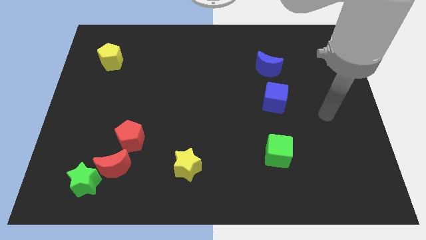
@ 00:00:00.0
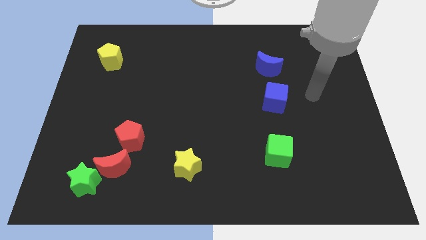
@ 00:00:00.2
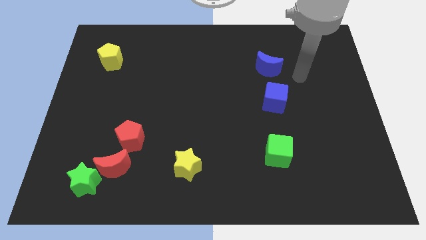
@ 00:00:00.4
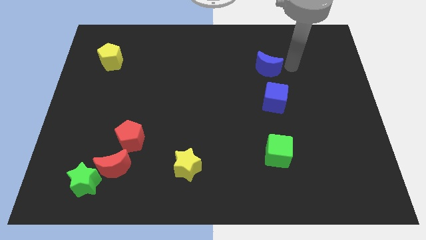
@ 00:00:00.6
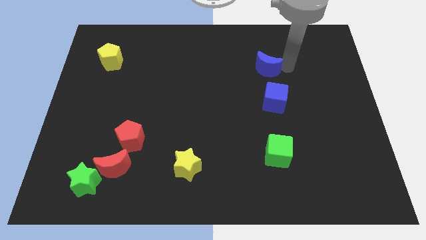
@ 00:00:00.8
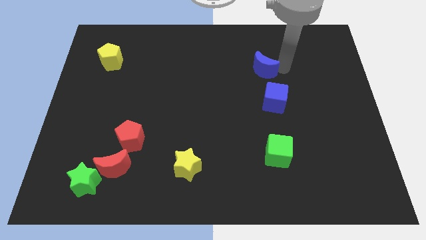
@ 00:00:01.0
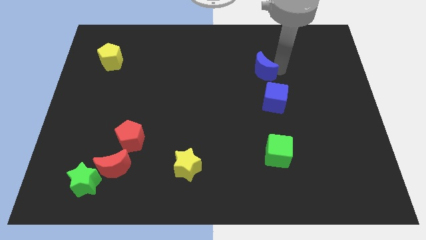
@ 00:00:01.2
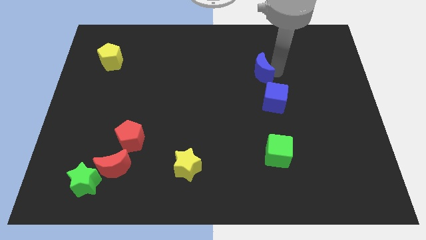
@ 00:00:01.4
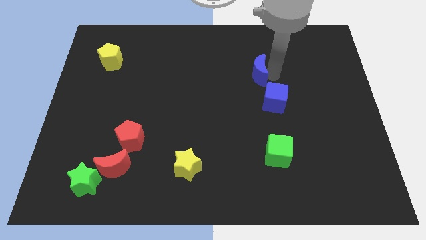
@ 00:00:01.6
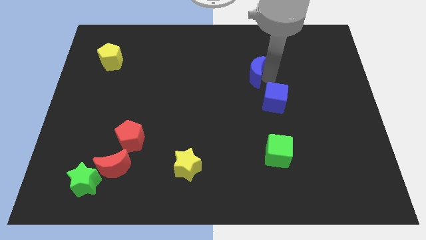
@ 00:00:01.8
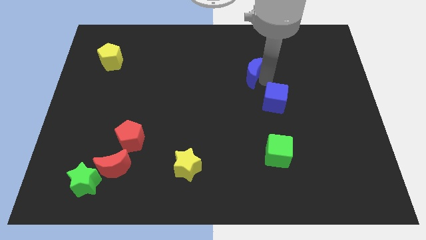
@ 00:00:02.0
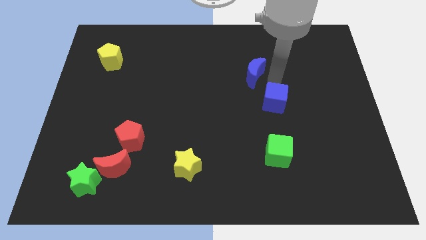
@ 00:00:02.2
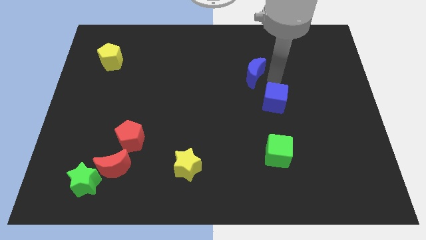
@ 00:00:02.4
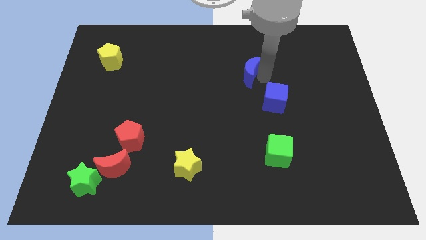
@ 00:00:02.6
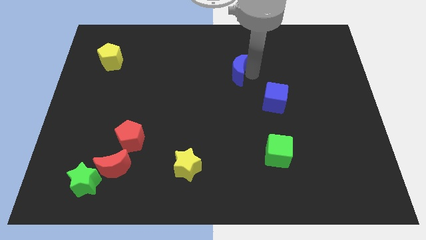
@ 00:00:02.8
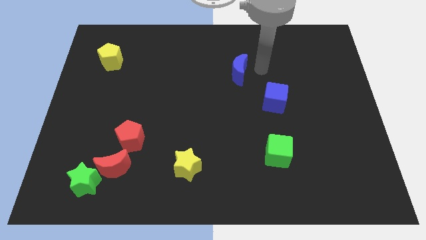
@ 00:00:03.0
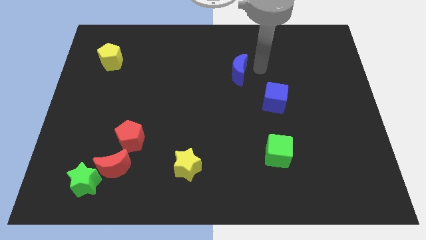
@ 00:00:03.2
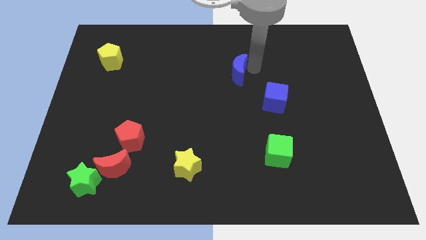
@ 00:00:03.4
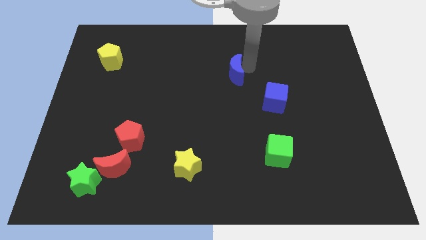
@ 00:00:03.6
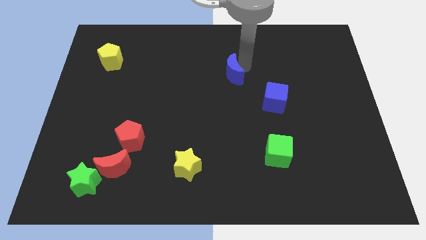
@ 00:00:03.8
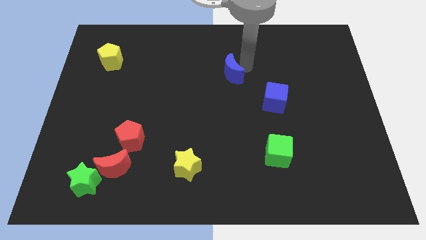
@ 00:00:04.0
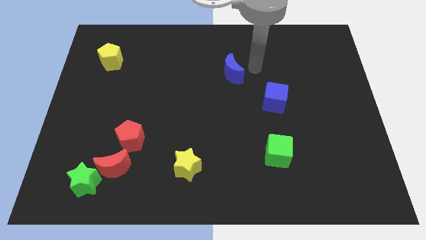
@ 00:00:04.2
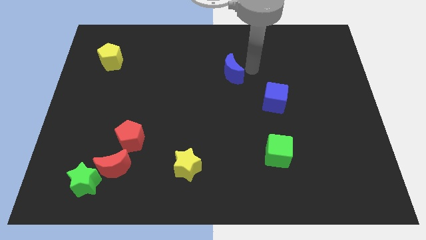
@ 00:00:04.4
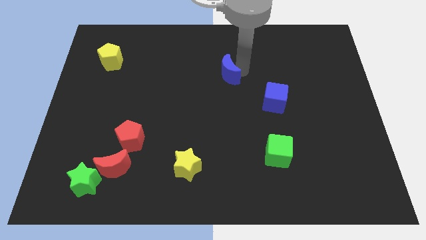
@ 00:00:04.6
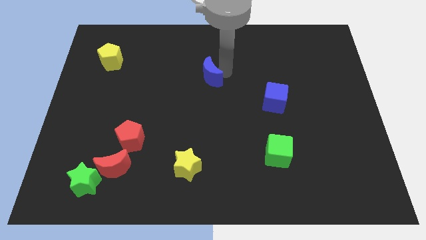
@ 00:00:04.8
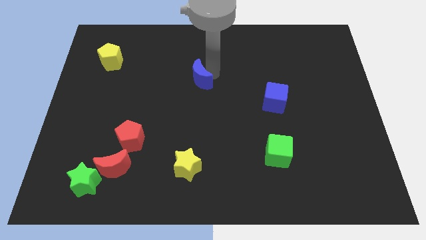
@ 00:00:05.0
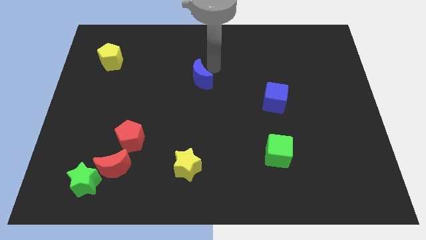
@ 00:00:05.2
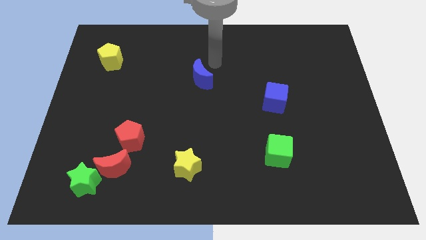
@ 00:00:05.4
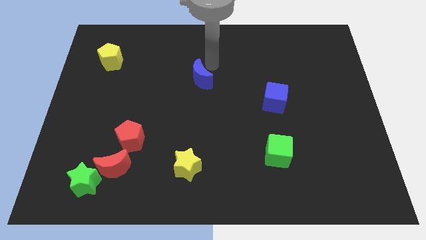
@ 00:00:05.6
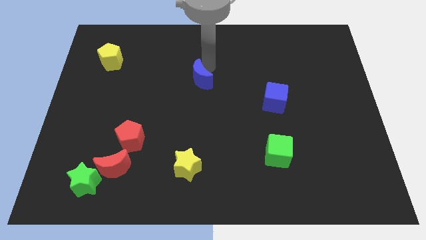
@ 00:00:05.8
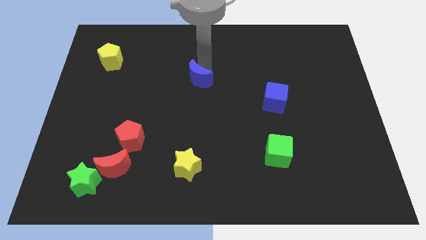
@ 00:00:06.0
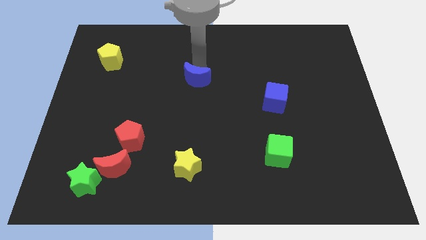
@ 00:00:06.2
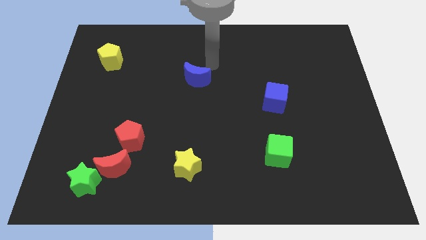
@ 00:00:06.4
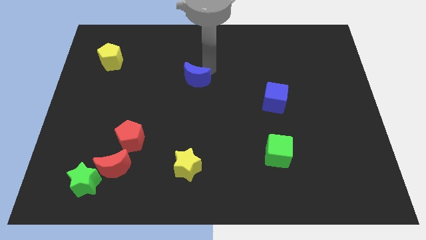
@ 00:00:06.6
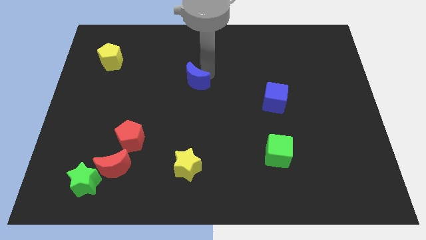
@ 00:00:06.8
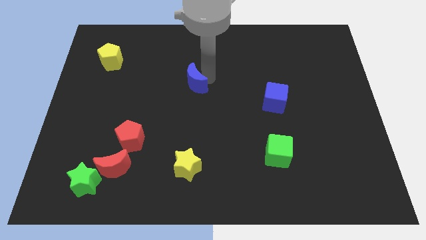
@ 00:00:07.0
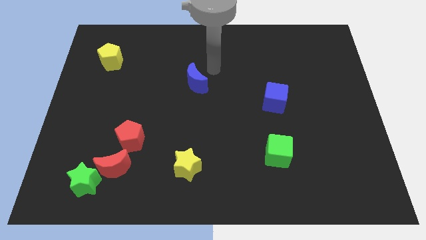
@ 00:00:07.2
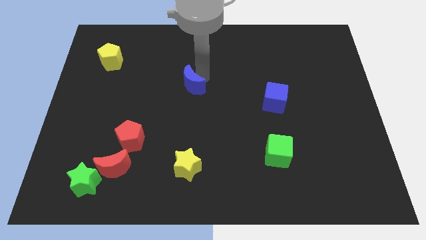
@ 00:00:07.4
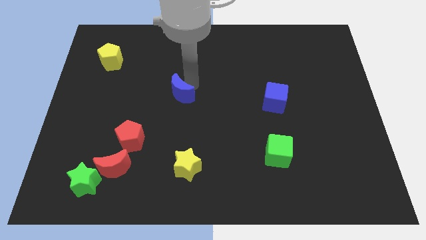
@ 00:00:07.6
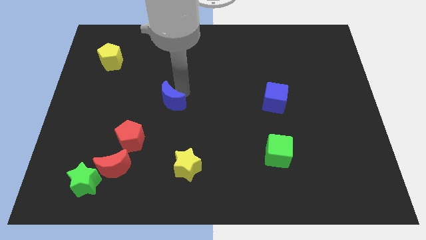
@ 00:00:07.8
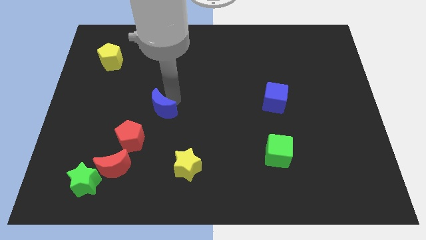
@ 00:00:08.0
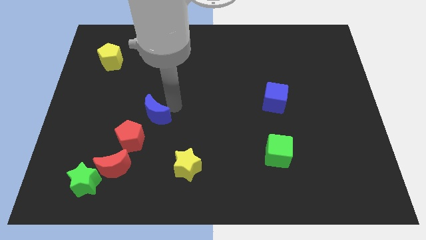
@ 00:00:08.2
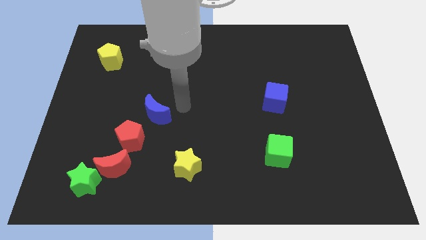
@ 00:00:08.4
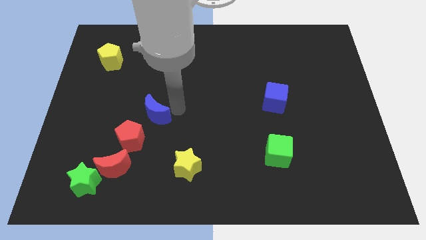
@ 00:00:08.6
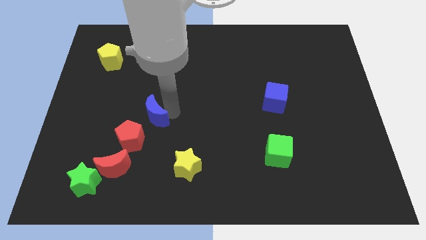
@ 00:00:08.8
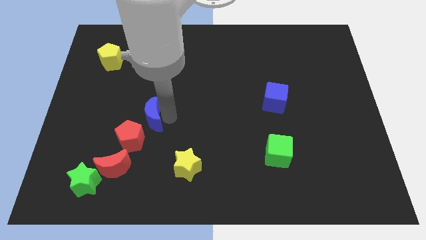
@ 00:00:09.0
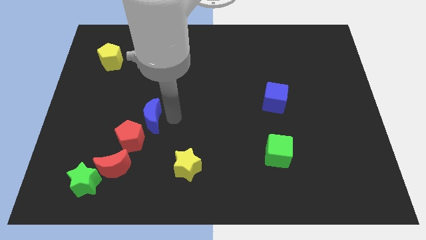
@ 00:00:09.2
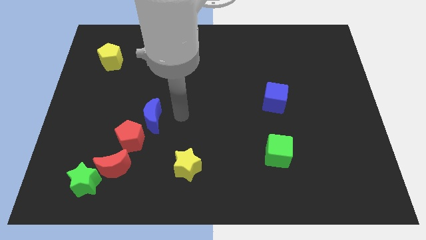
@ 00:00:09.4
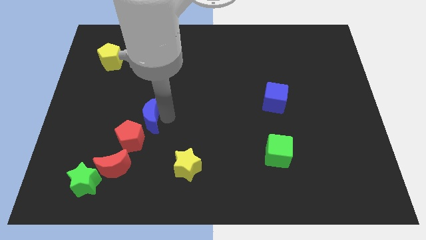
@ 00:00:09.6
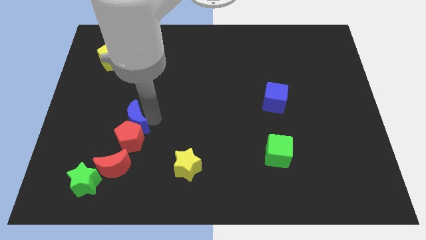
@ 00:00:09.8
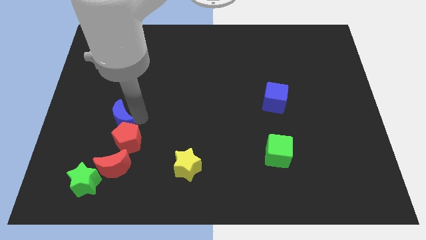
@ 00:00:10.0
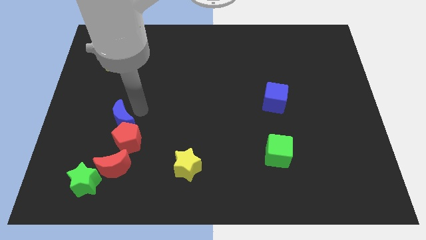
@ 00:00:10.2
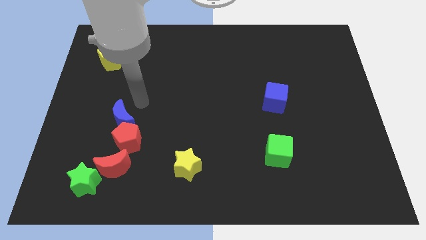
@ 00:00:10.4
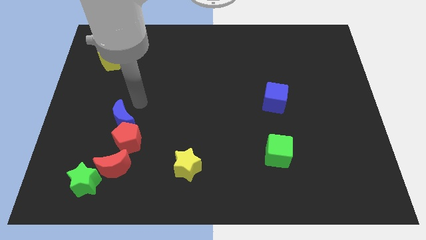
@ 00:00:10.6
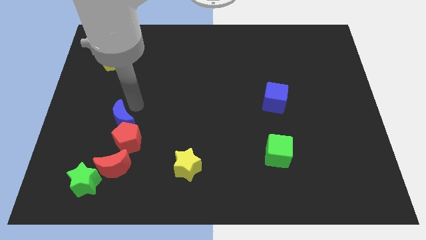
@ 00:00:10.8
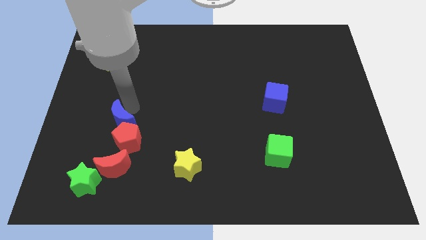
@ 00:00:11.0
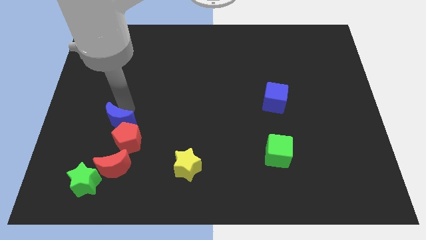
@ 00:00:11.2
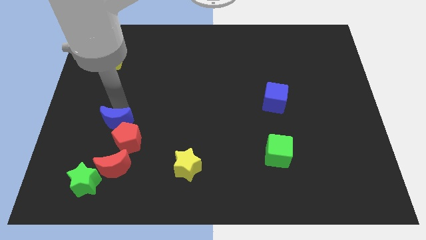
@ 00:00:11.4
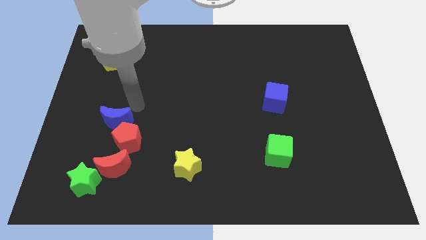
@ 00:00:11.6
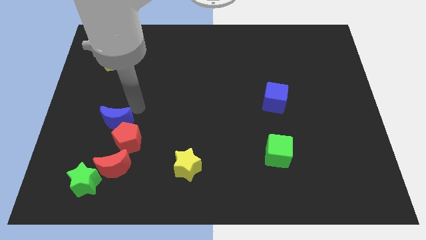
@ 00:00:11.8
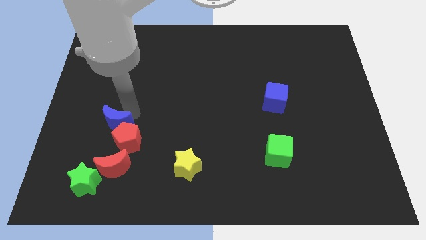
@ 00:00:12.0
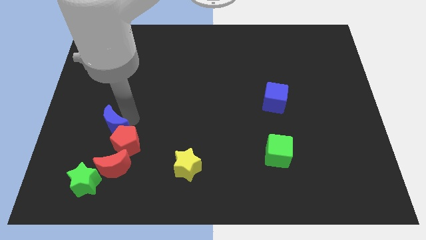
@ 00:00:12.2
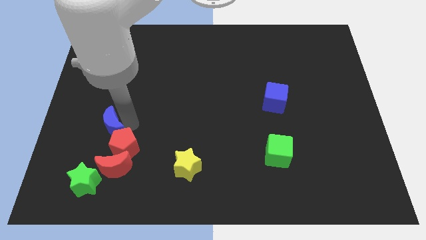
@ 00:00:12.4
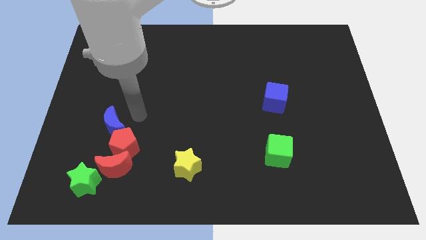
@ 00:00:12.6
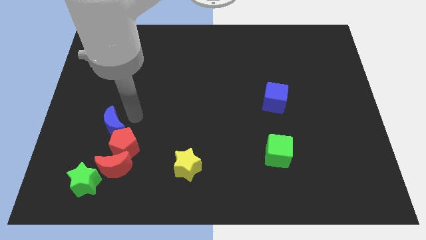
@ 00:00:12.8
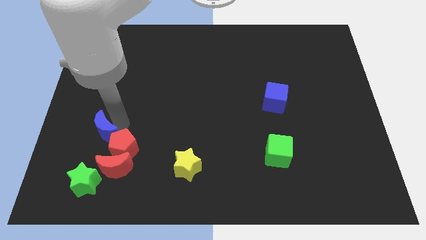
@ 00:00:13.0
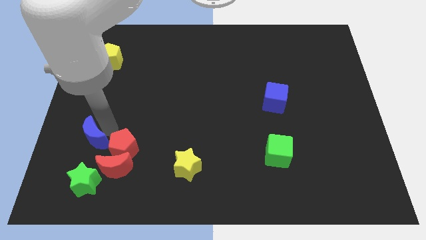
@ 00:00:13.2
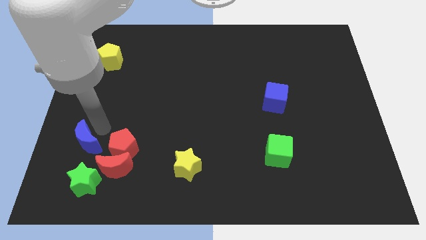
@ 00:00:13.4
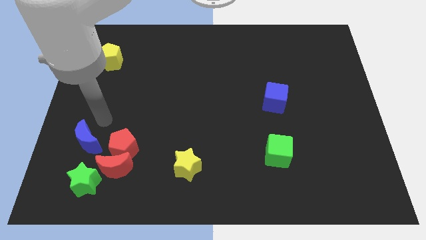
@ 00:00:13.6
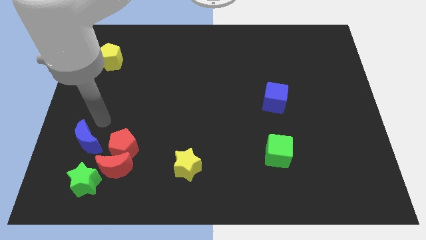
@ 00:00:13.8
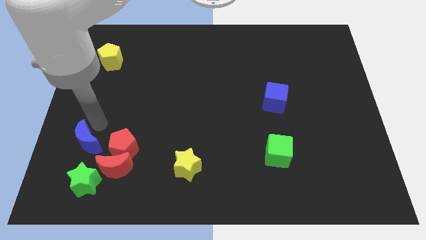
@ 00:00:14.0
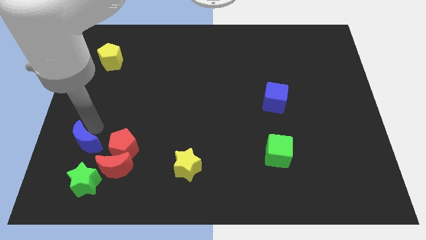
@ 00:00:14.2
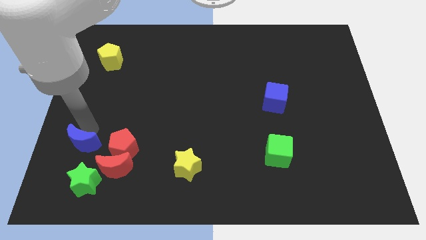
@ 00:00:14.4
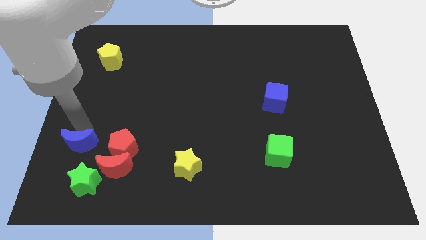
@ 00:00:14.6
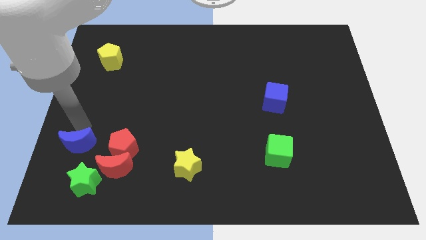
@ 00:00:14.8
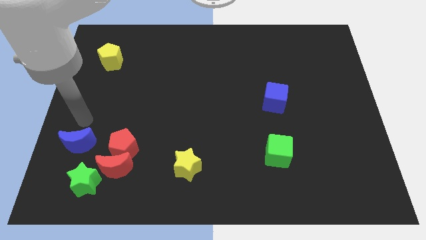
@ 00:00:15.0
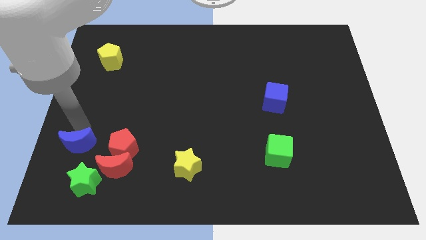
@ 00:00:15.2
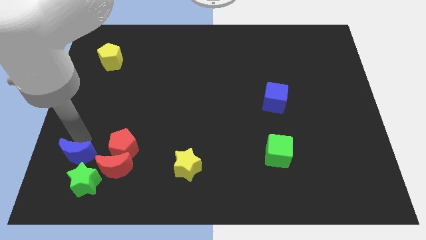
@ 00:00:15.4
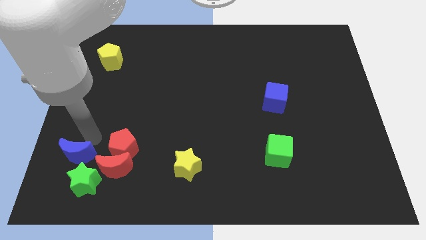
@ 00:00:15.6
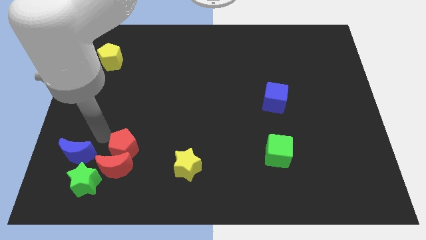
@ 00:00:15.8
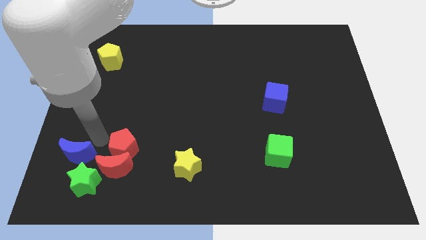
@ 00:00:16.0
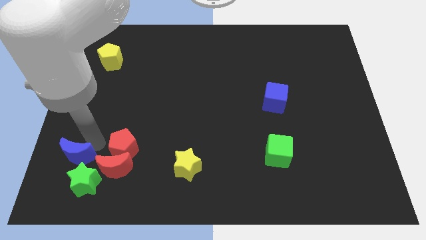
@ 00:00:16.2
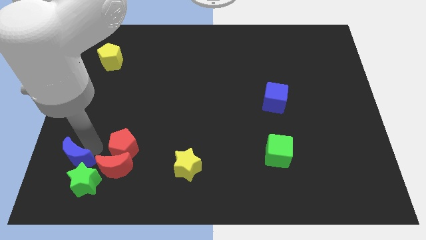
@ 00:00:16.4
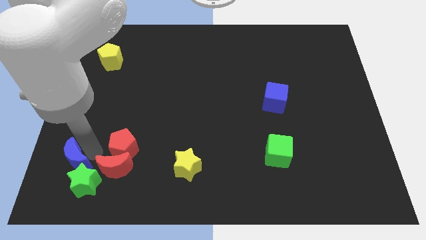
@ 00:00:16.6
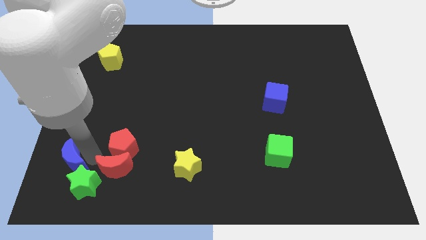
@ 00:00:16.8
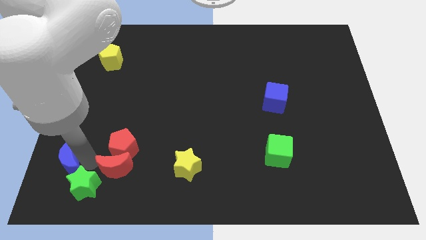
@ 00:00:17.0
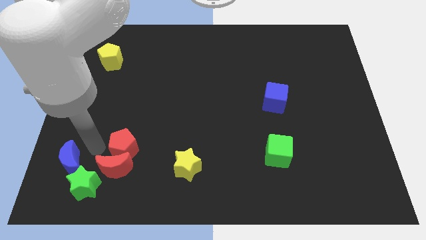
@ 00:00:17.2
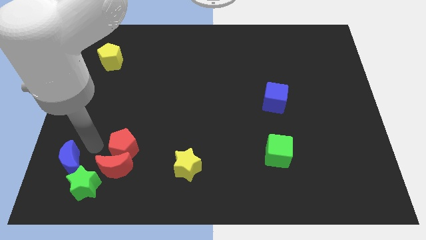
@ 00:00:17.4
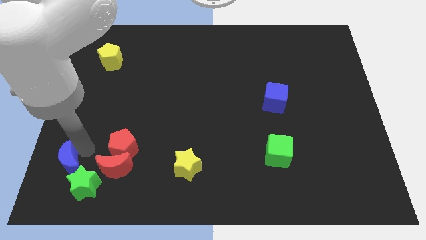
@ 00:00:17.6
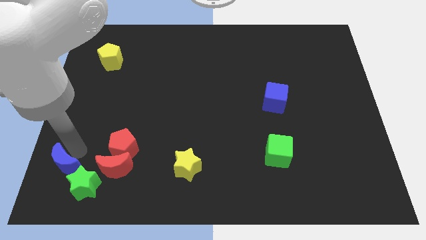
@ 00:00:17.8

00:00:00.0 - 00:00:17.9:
push the blue moon to the lower left corner
